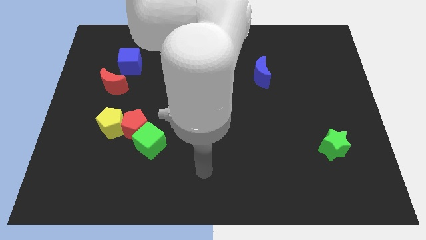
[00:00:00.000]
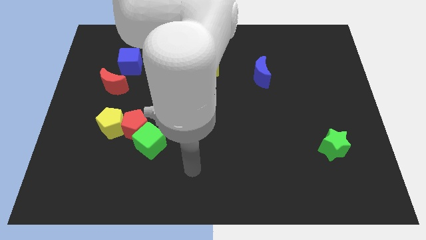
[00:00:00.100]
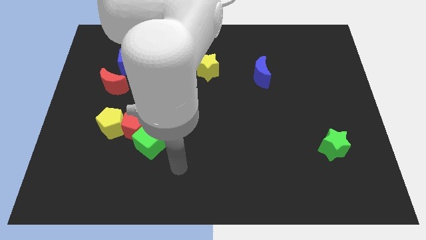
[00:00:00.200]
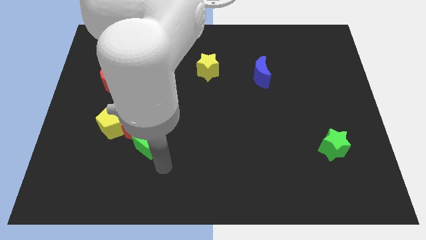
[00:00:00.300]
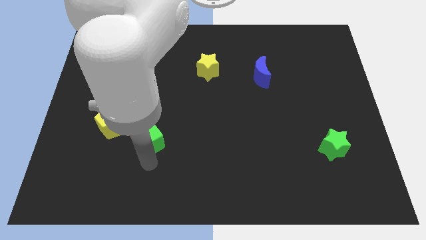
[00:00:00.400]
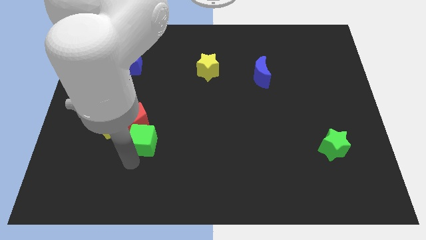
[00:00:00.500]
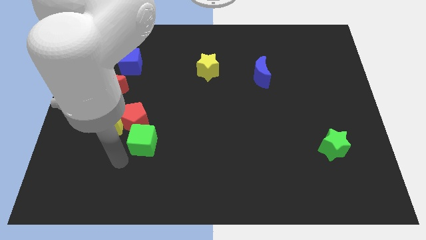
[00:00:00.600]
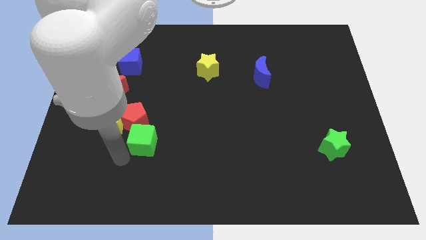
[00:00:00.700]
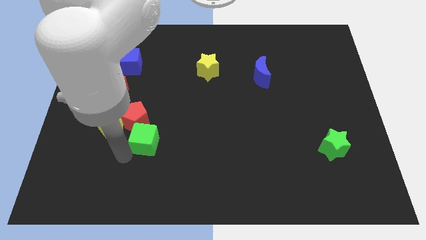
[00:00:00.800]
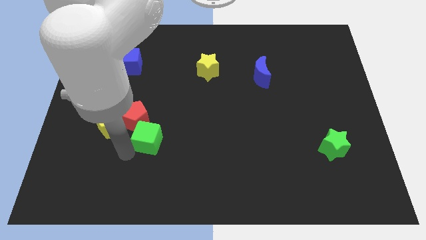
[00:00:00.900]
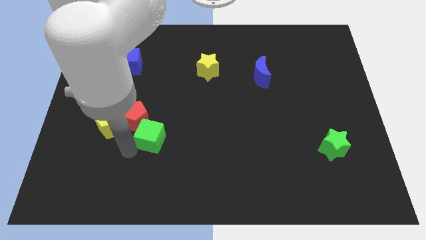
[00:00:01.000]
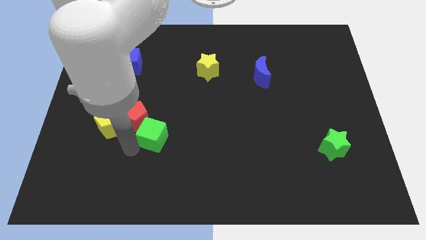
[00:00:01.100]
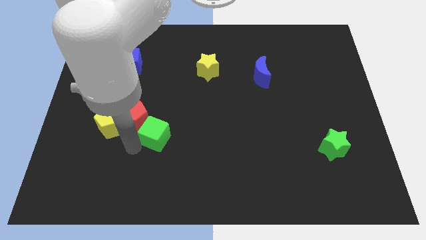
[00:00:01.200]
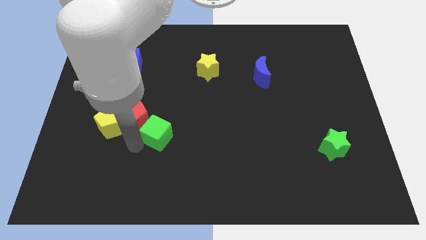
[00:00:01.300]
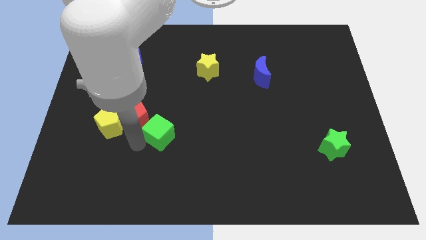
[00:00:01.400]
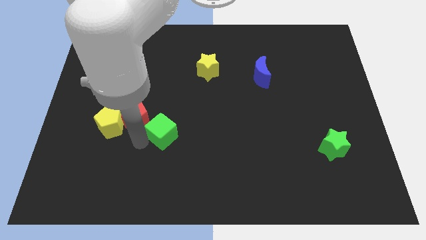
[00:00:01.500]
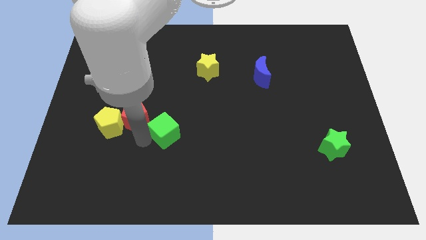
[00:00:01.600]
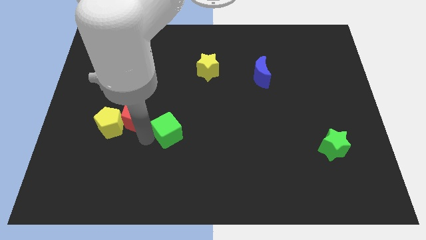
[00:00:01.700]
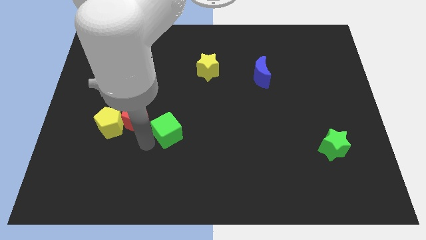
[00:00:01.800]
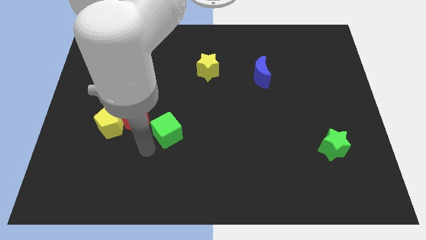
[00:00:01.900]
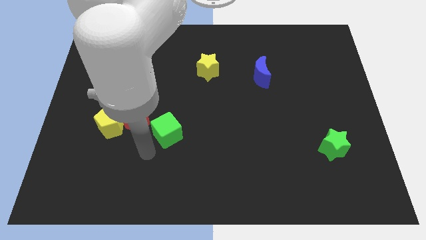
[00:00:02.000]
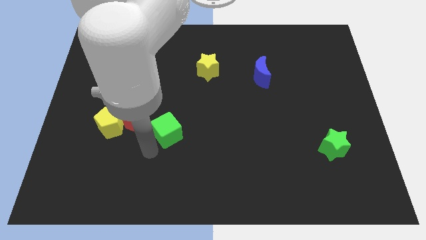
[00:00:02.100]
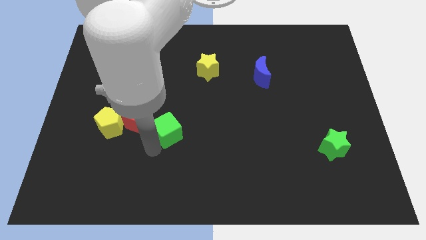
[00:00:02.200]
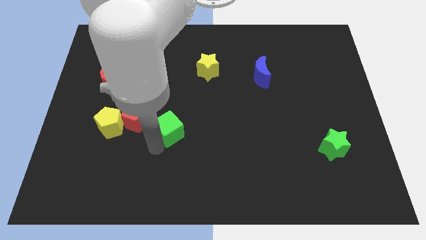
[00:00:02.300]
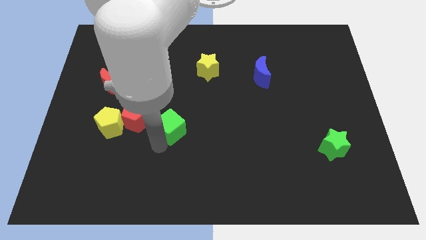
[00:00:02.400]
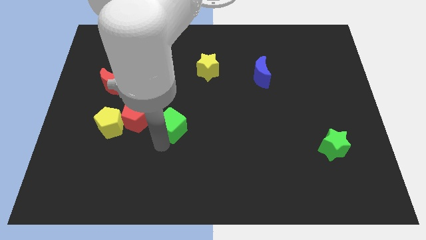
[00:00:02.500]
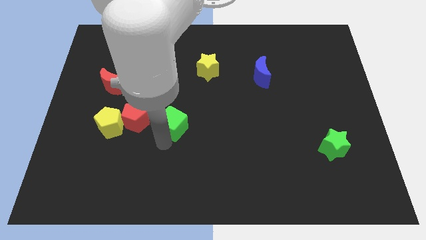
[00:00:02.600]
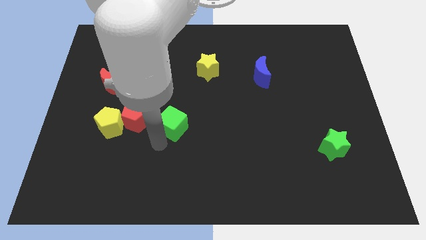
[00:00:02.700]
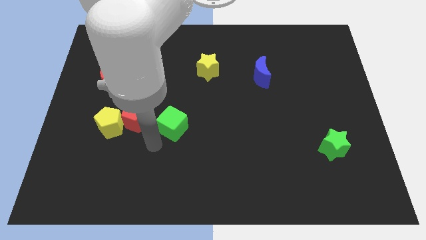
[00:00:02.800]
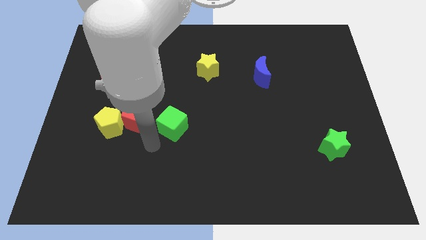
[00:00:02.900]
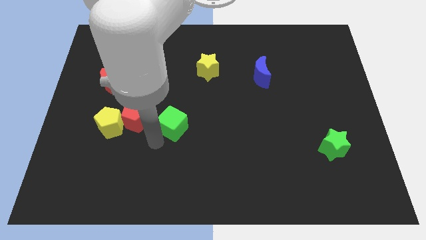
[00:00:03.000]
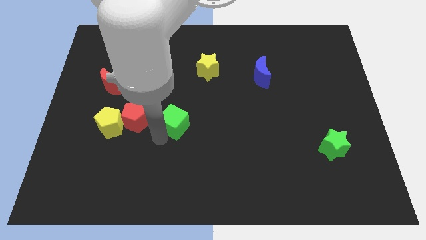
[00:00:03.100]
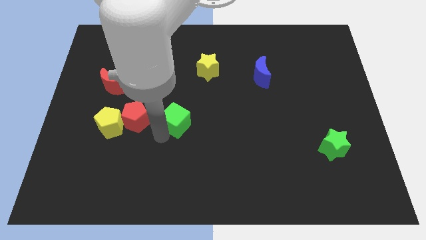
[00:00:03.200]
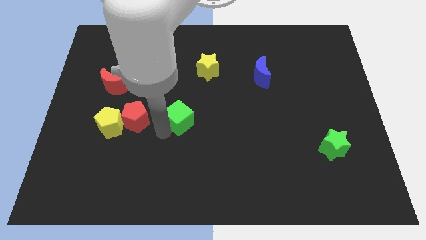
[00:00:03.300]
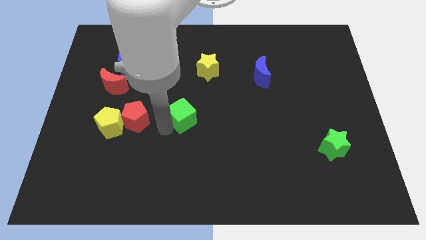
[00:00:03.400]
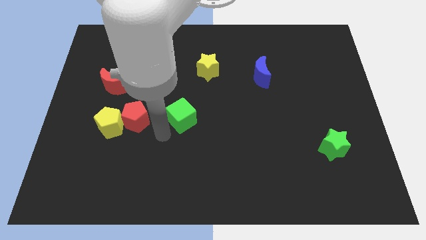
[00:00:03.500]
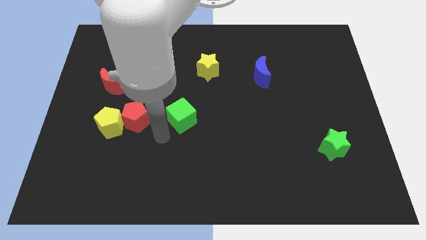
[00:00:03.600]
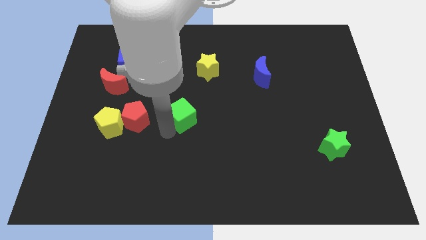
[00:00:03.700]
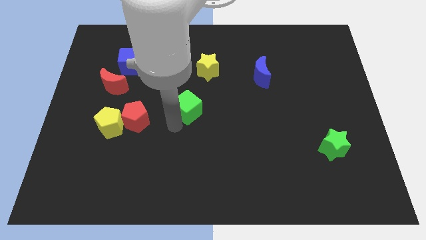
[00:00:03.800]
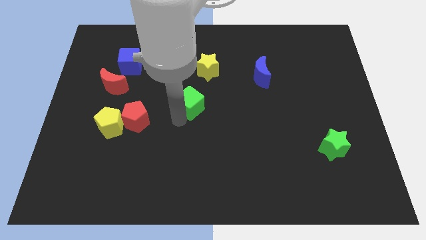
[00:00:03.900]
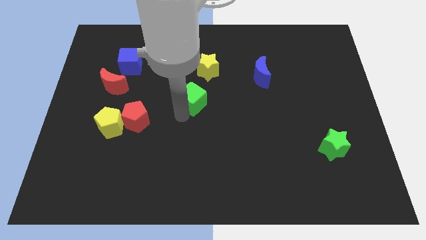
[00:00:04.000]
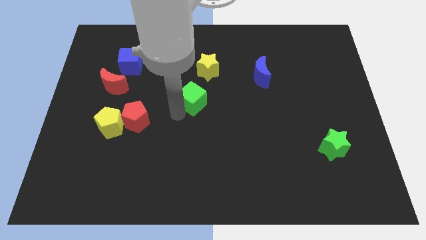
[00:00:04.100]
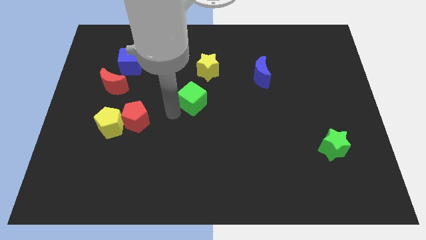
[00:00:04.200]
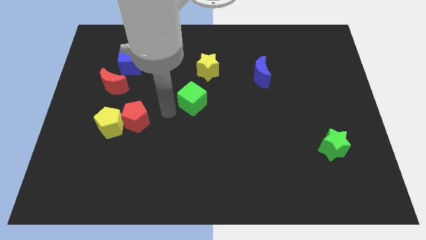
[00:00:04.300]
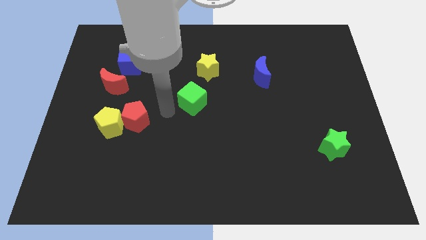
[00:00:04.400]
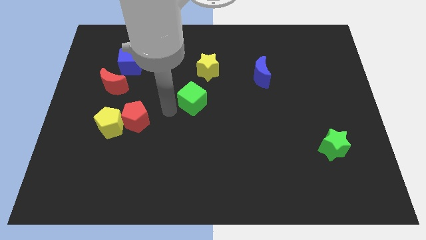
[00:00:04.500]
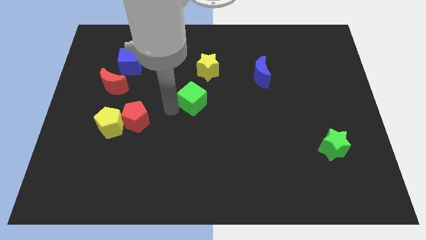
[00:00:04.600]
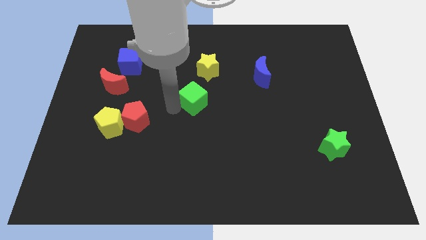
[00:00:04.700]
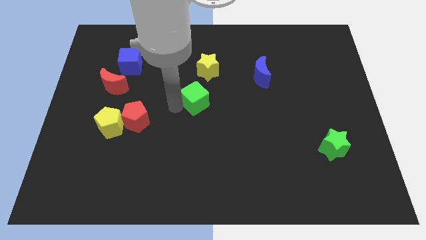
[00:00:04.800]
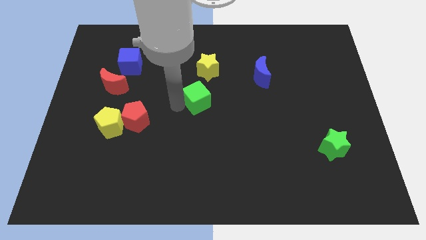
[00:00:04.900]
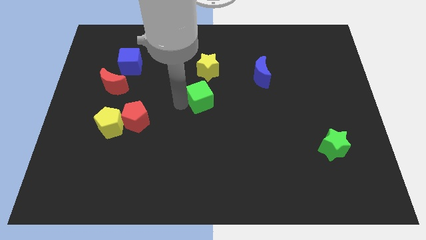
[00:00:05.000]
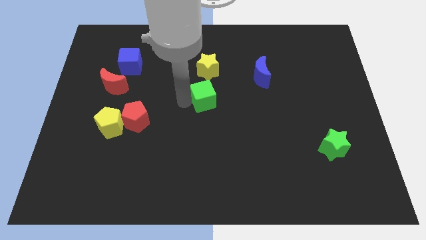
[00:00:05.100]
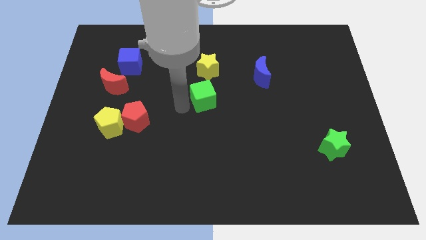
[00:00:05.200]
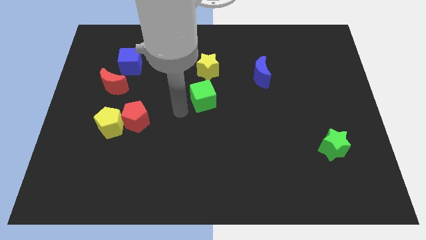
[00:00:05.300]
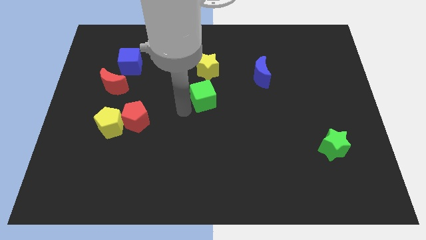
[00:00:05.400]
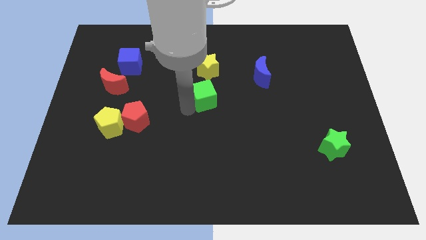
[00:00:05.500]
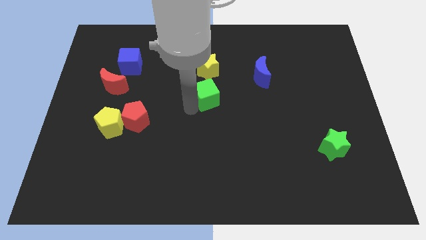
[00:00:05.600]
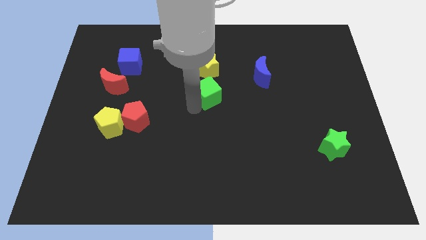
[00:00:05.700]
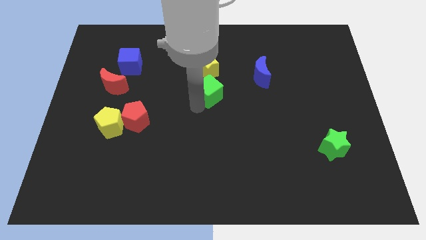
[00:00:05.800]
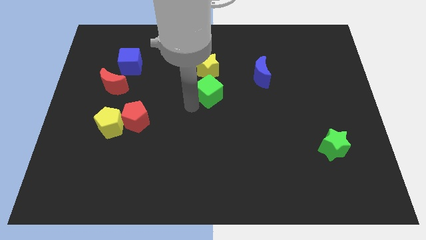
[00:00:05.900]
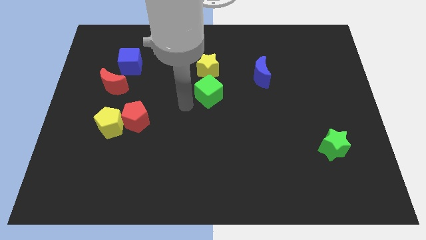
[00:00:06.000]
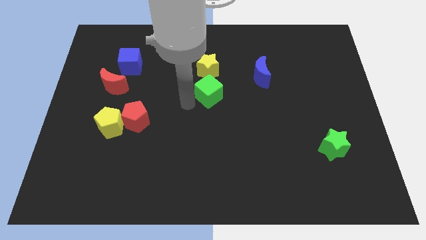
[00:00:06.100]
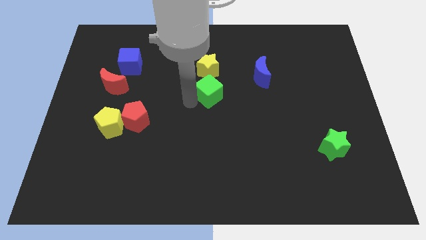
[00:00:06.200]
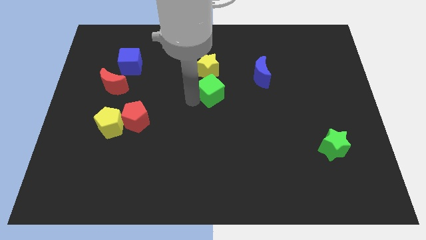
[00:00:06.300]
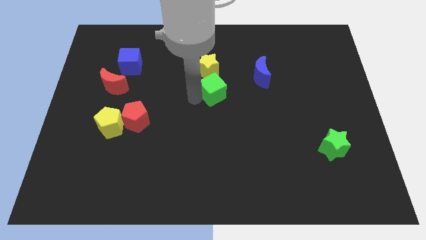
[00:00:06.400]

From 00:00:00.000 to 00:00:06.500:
put the green cube diagonally down and to the right of the yellow star
